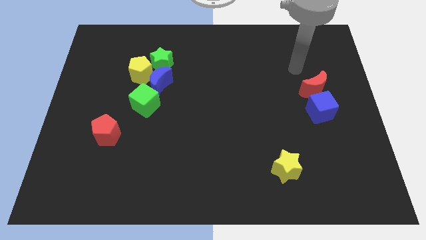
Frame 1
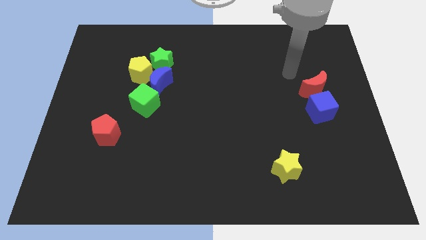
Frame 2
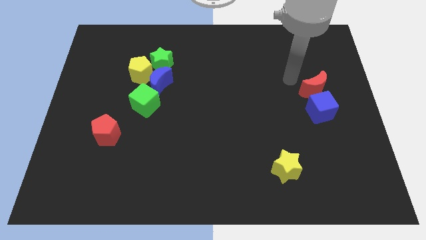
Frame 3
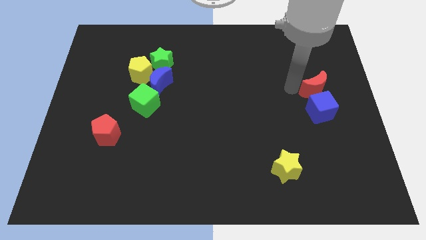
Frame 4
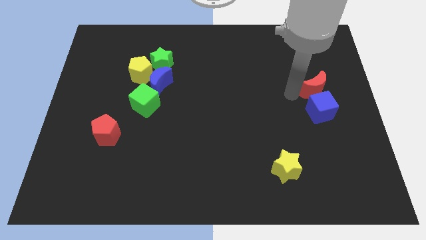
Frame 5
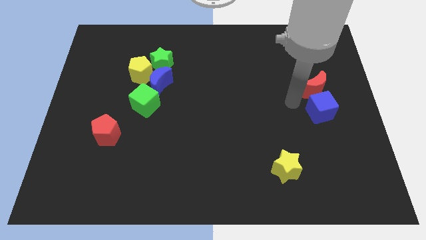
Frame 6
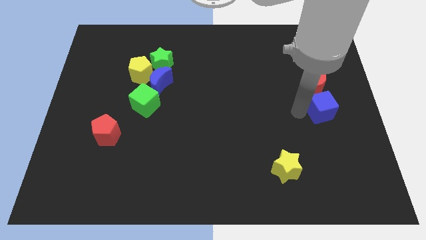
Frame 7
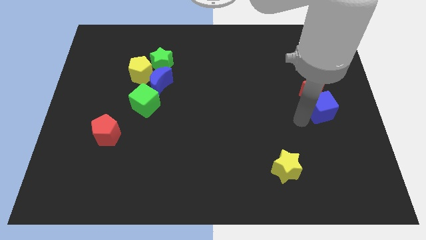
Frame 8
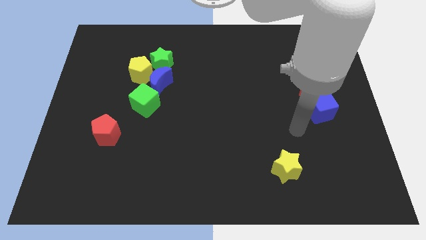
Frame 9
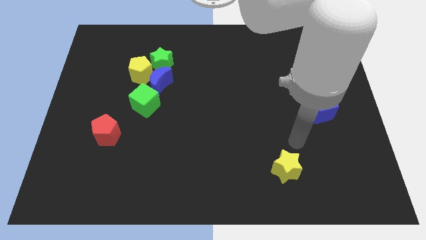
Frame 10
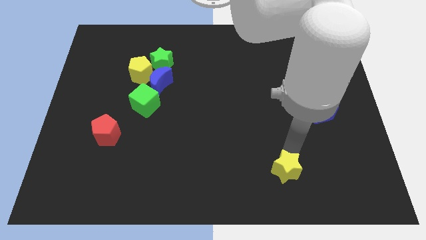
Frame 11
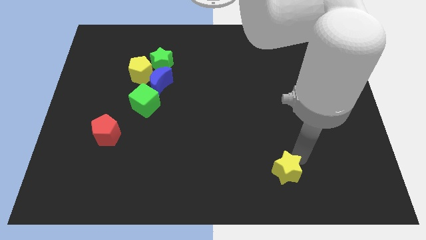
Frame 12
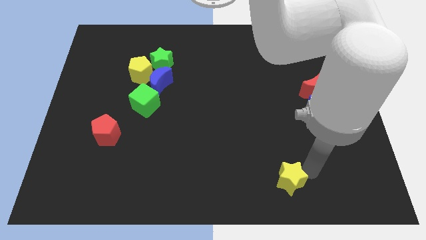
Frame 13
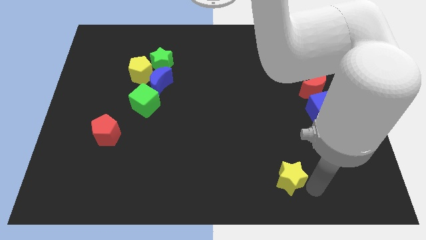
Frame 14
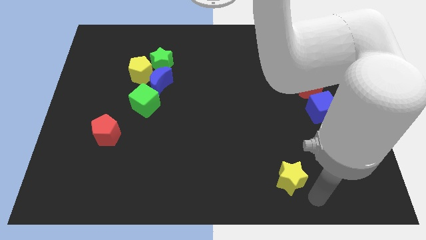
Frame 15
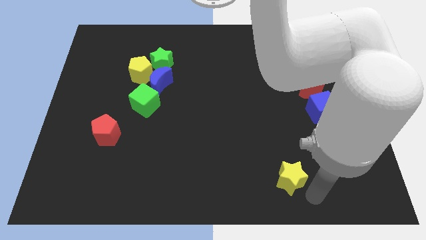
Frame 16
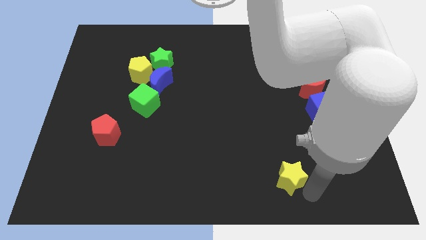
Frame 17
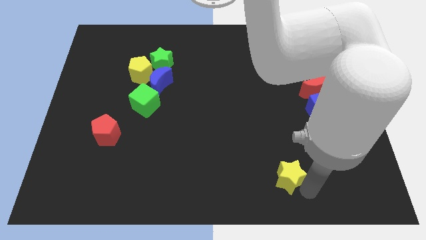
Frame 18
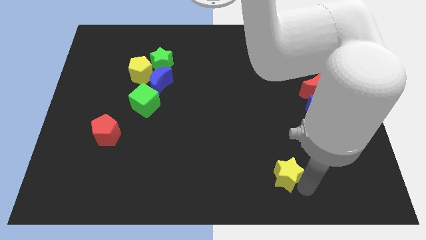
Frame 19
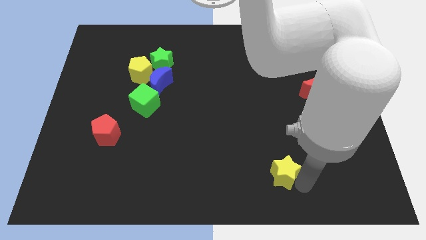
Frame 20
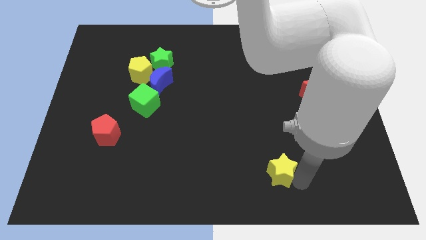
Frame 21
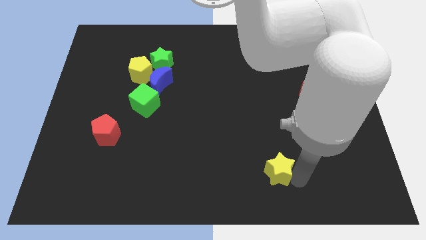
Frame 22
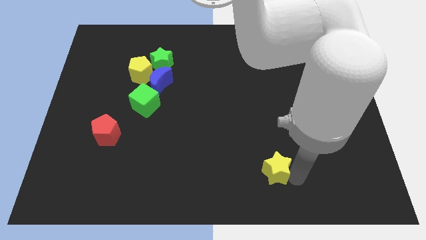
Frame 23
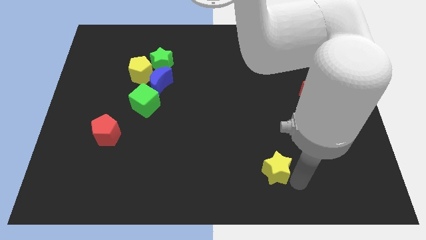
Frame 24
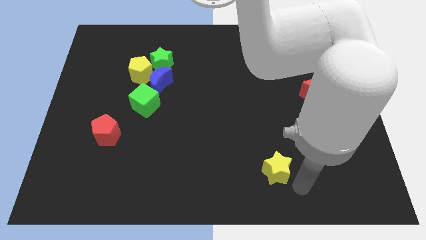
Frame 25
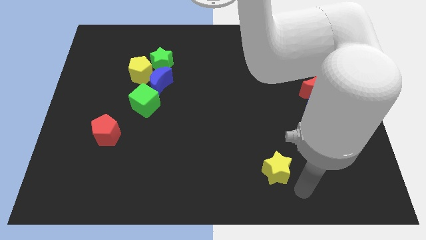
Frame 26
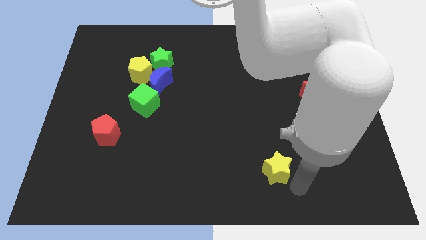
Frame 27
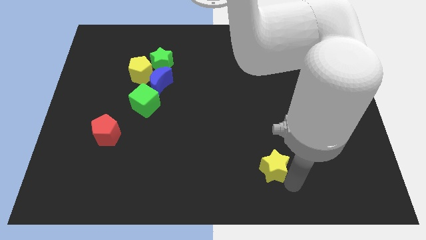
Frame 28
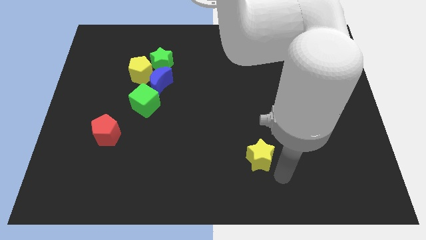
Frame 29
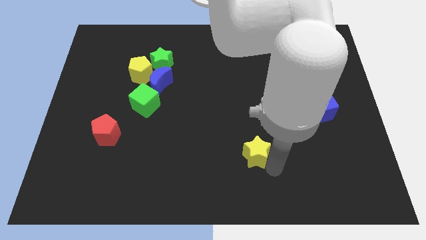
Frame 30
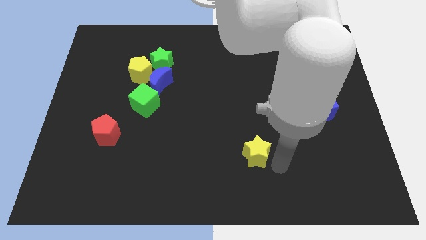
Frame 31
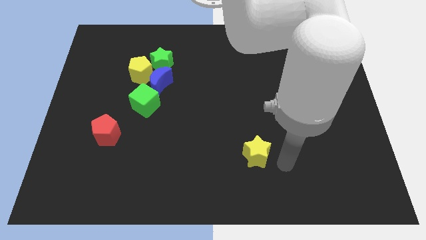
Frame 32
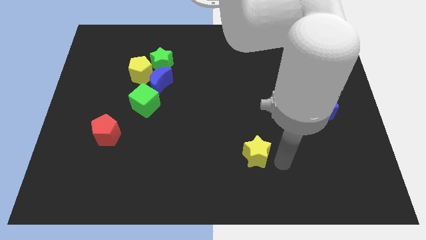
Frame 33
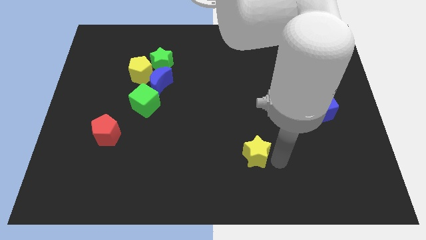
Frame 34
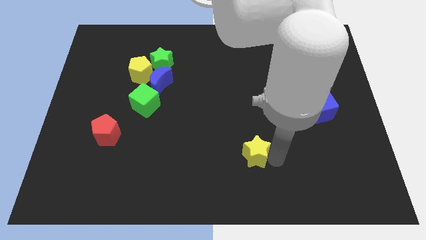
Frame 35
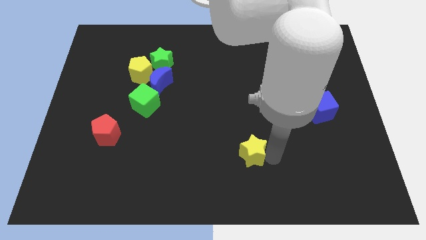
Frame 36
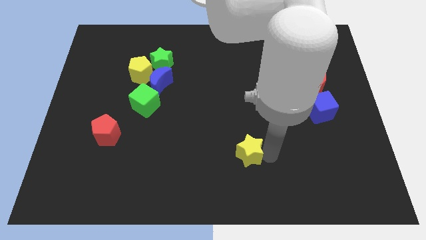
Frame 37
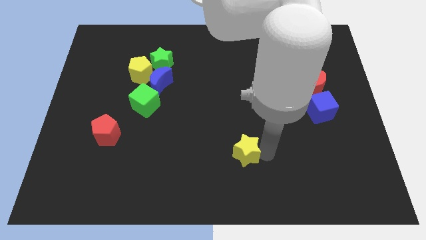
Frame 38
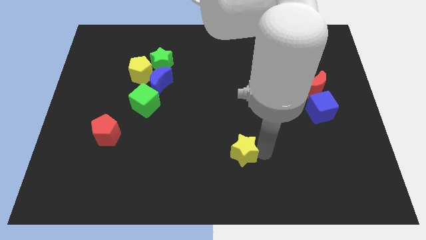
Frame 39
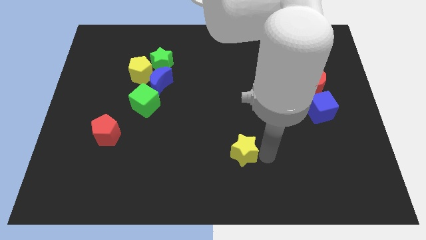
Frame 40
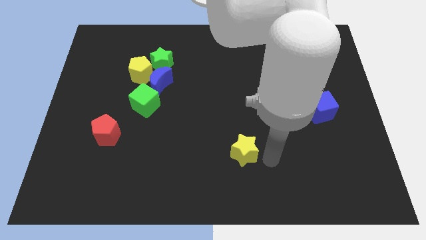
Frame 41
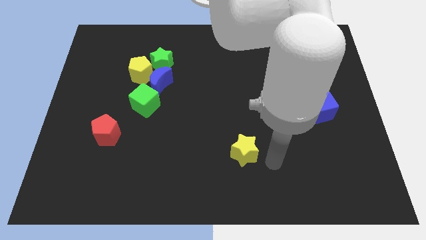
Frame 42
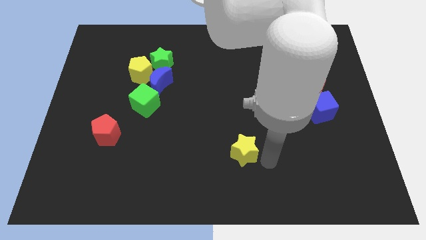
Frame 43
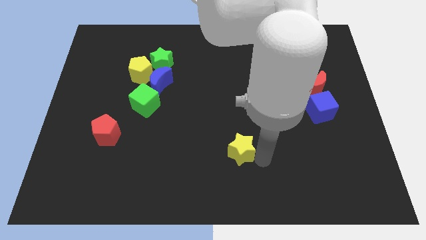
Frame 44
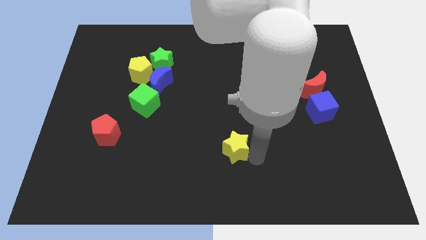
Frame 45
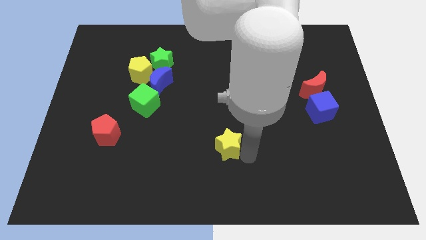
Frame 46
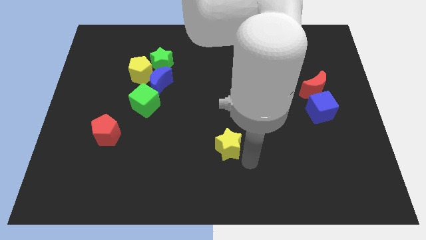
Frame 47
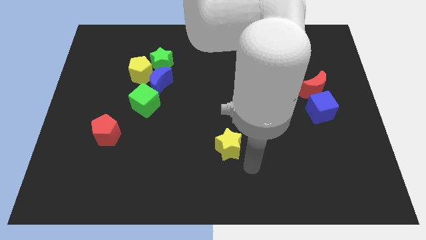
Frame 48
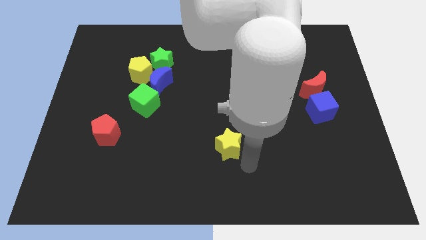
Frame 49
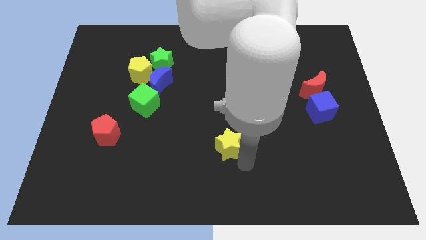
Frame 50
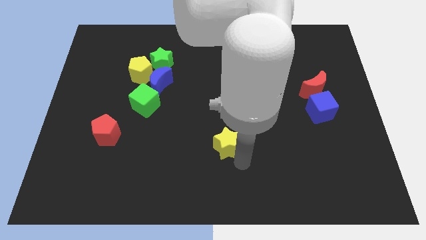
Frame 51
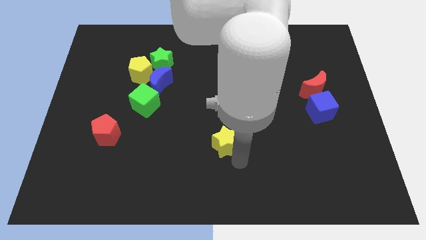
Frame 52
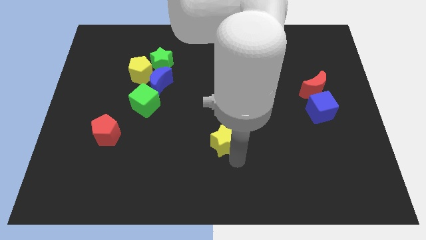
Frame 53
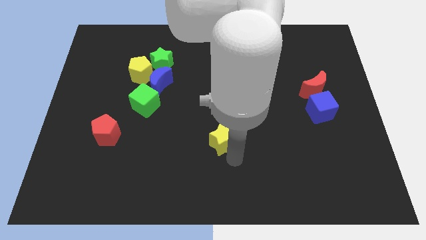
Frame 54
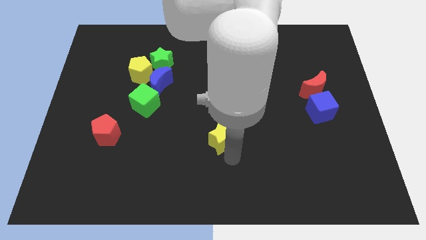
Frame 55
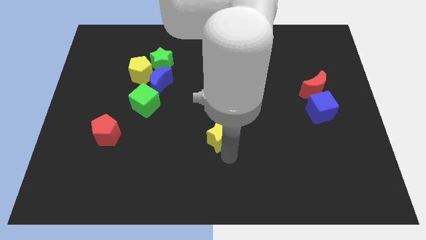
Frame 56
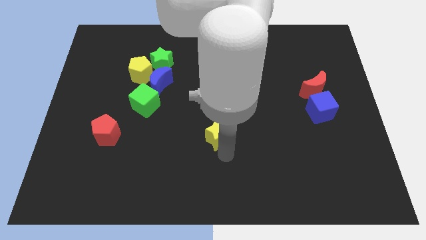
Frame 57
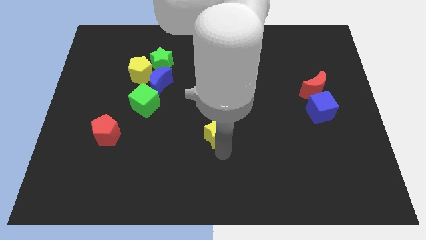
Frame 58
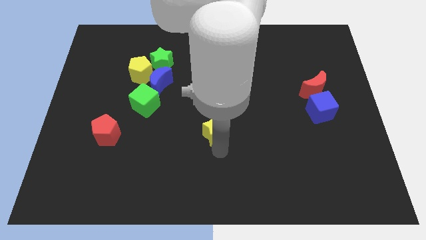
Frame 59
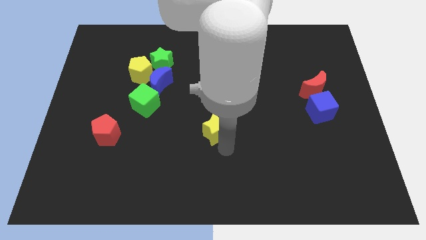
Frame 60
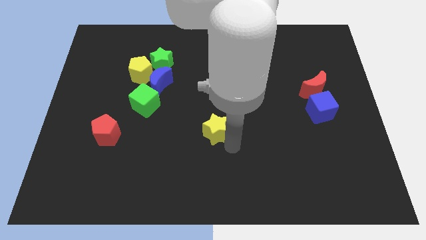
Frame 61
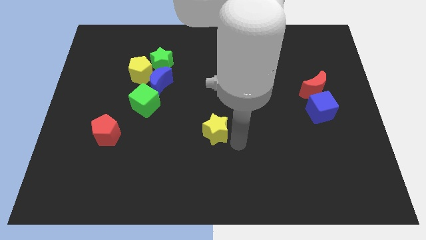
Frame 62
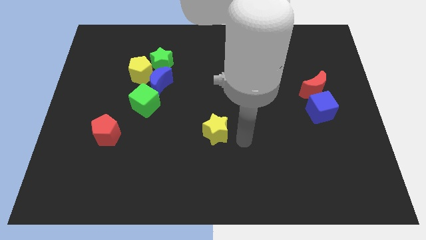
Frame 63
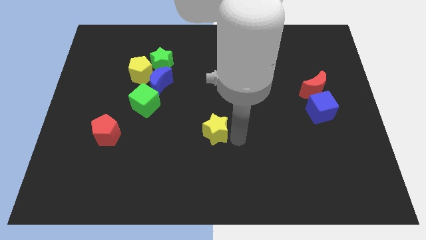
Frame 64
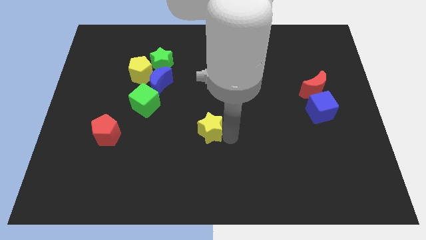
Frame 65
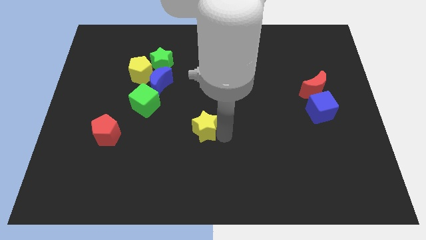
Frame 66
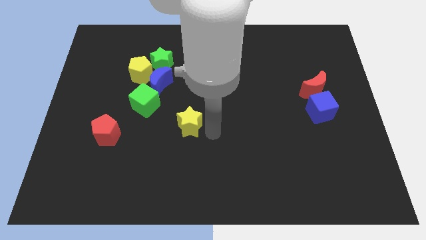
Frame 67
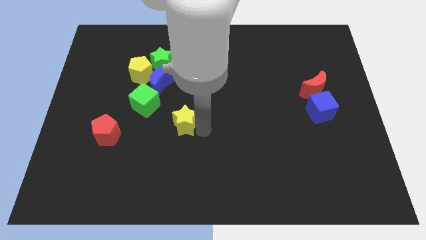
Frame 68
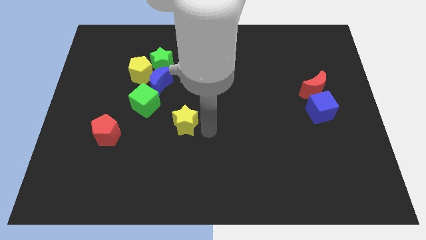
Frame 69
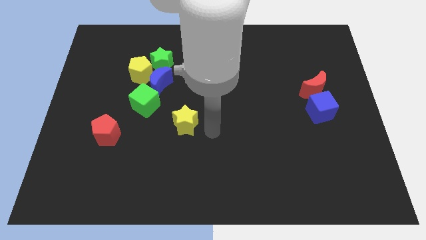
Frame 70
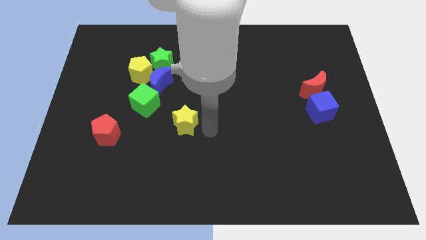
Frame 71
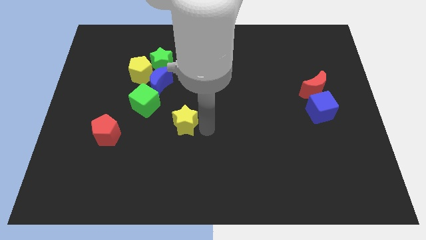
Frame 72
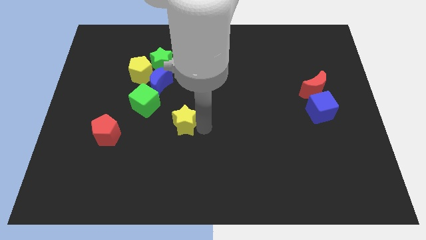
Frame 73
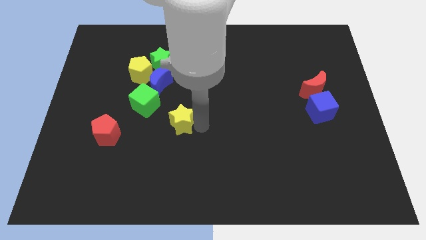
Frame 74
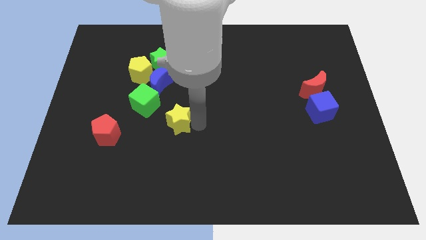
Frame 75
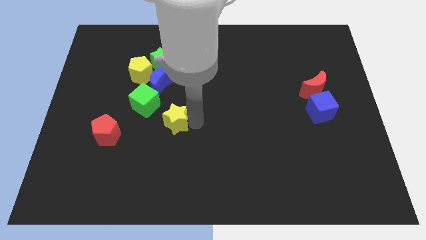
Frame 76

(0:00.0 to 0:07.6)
slide the yellow star below the blue moon
